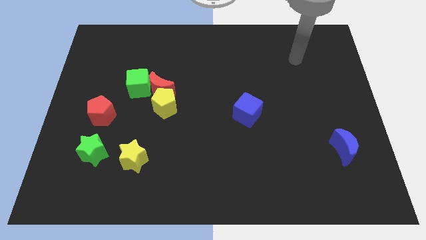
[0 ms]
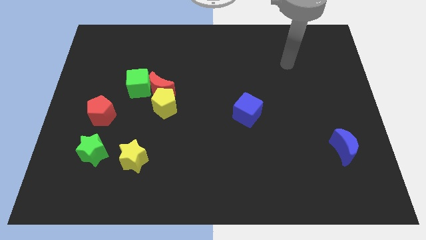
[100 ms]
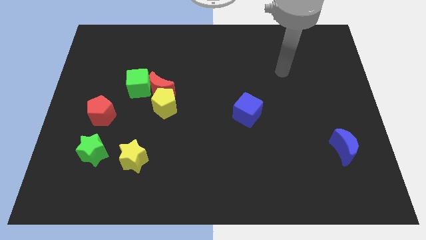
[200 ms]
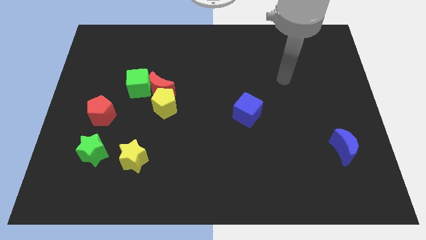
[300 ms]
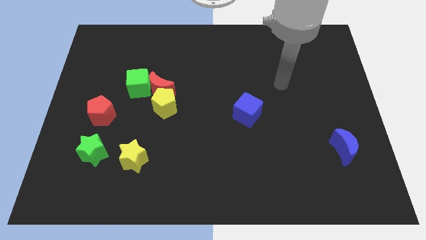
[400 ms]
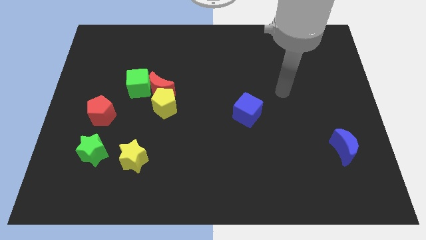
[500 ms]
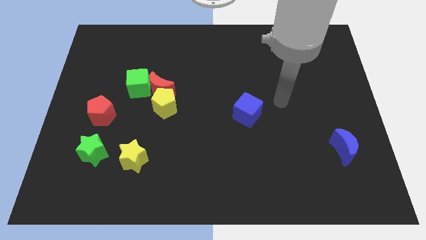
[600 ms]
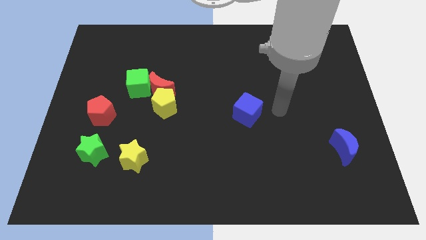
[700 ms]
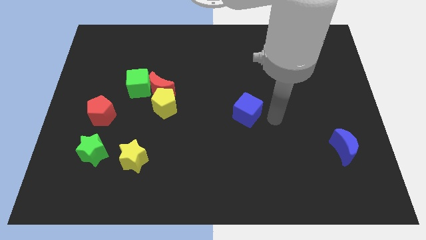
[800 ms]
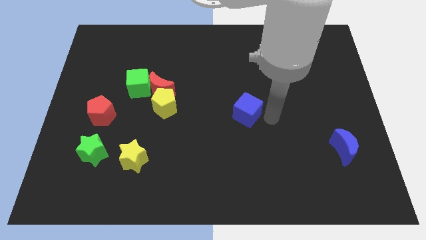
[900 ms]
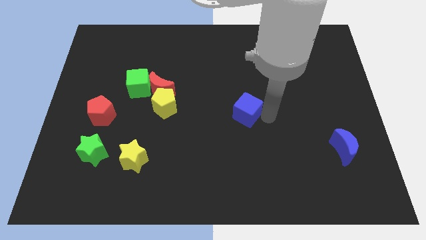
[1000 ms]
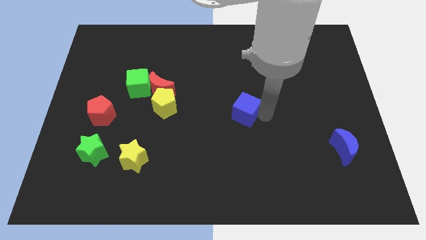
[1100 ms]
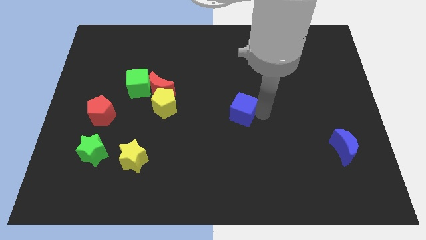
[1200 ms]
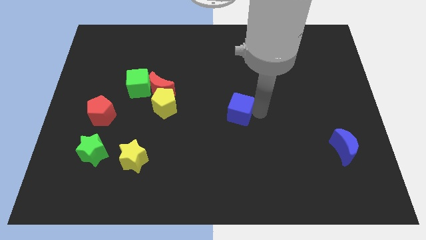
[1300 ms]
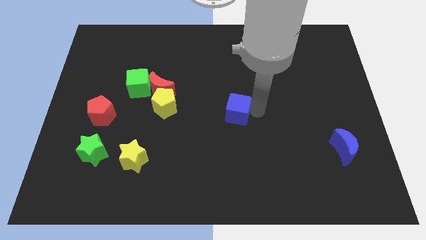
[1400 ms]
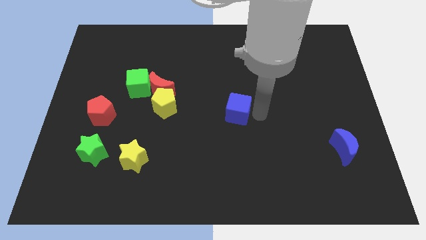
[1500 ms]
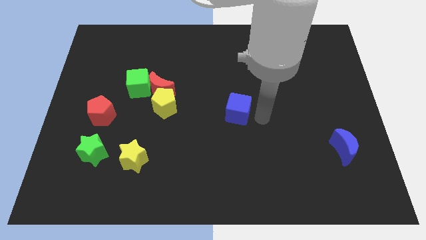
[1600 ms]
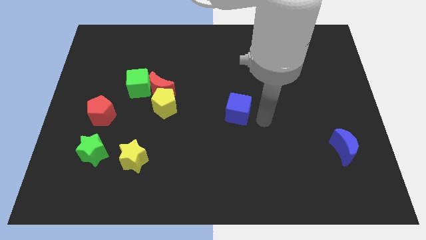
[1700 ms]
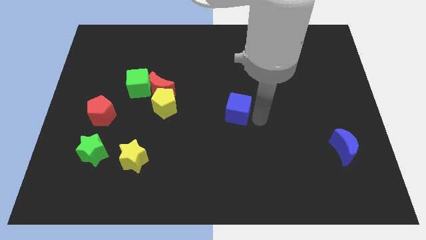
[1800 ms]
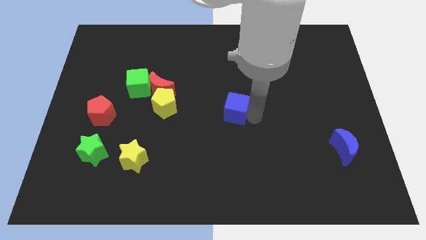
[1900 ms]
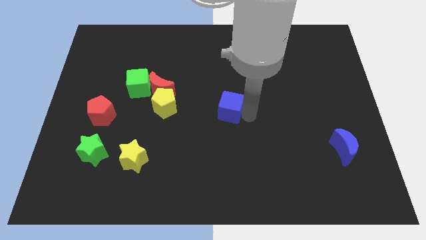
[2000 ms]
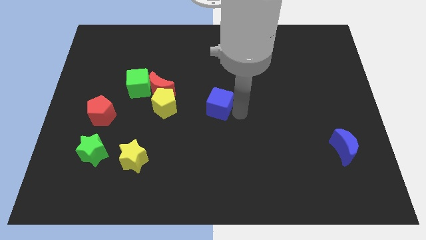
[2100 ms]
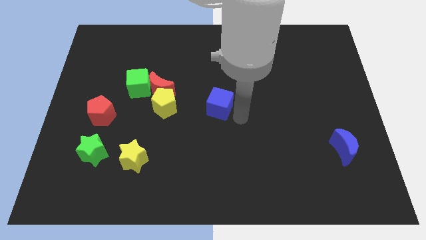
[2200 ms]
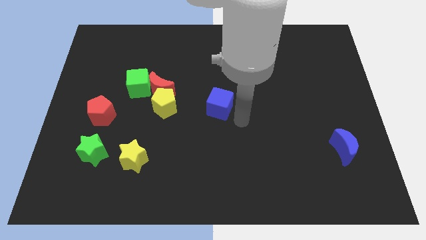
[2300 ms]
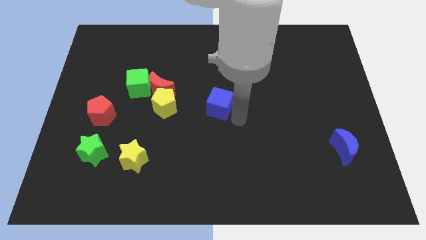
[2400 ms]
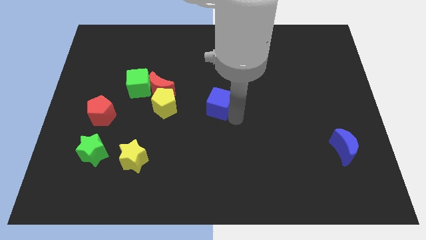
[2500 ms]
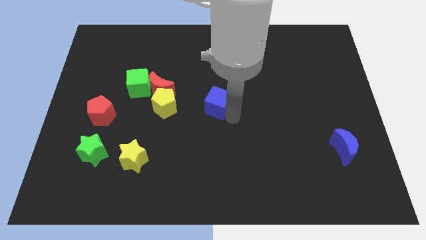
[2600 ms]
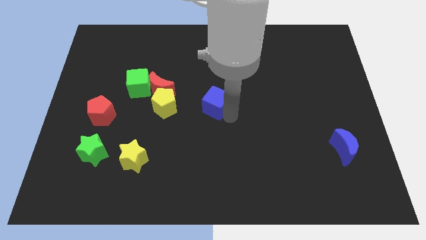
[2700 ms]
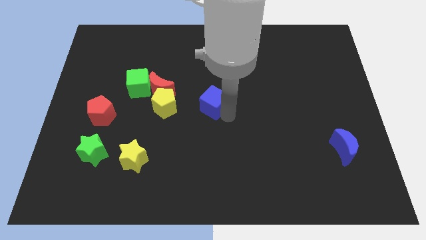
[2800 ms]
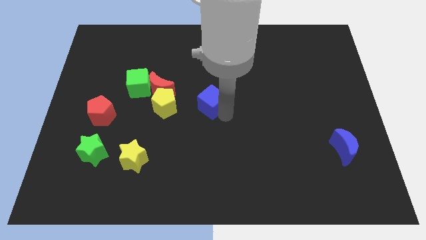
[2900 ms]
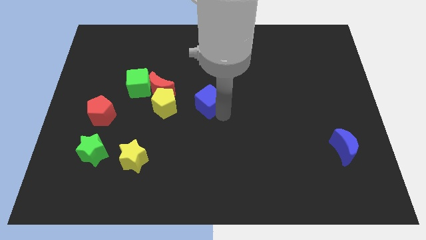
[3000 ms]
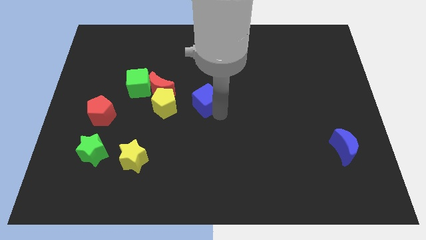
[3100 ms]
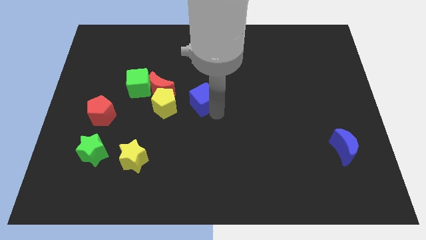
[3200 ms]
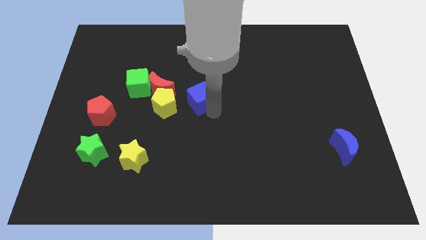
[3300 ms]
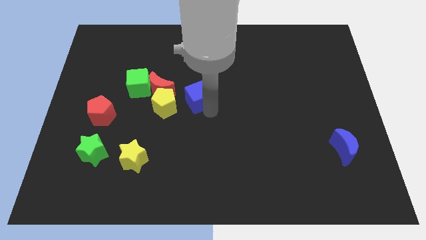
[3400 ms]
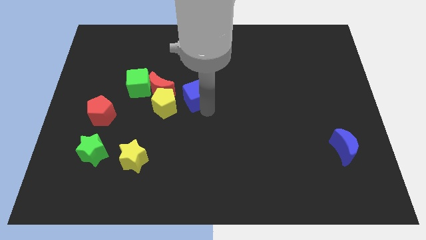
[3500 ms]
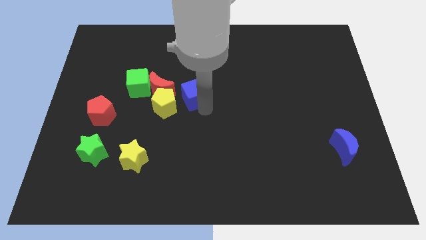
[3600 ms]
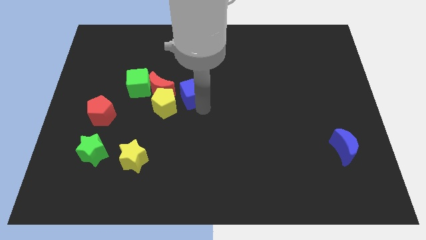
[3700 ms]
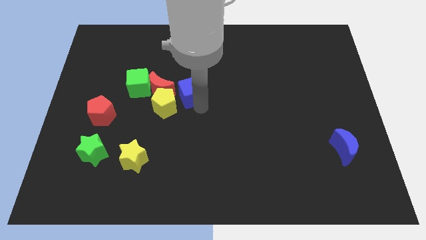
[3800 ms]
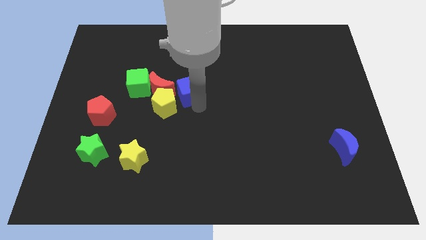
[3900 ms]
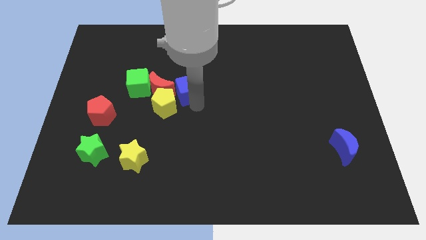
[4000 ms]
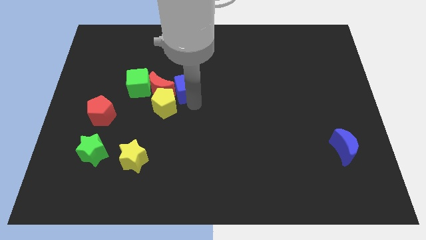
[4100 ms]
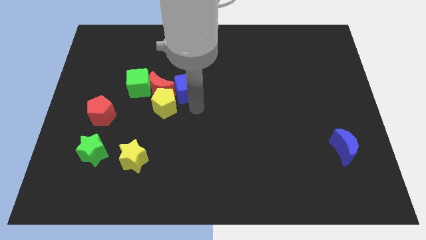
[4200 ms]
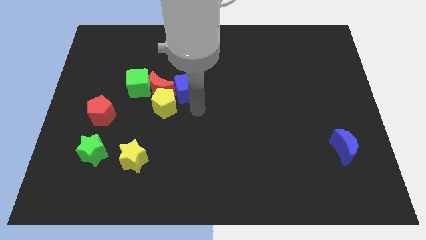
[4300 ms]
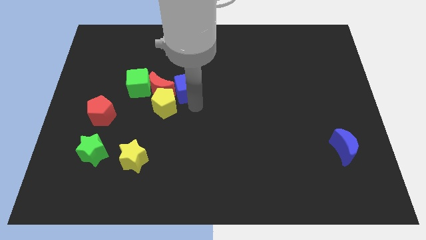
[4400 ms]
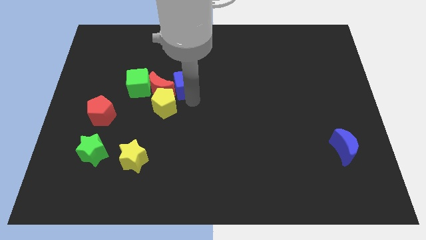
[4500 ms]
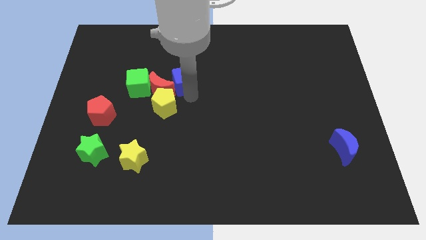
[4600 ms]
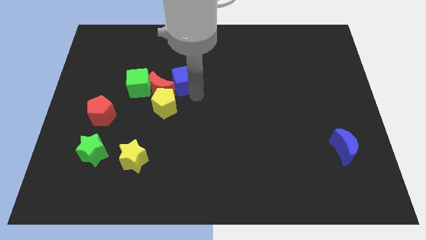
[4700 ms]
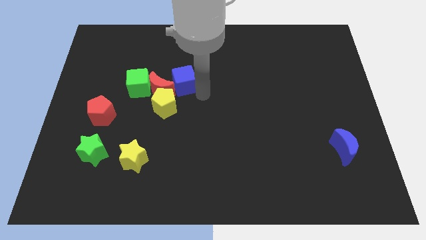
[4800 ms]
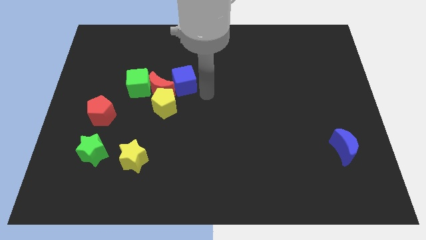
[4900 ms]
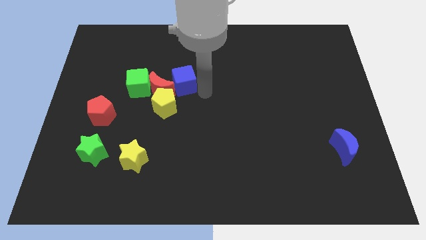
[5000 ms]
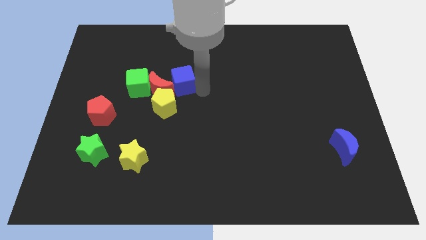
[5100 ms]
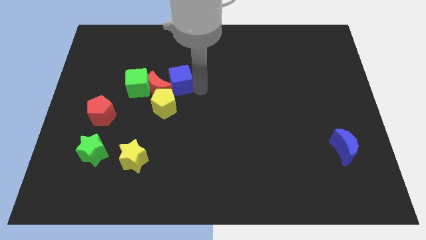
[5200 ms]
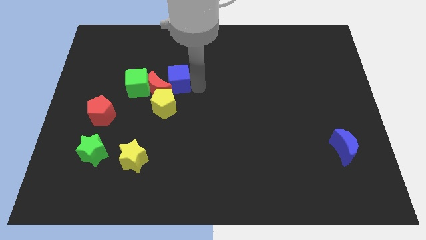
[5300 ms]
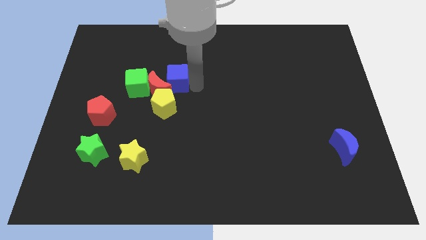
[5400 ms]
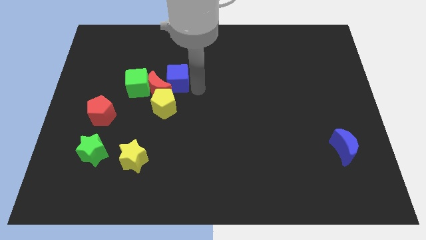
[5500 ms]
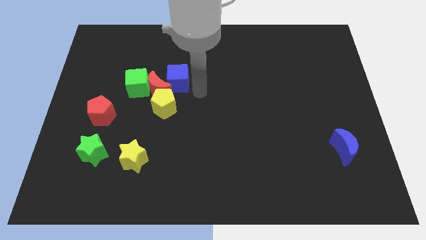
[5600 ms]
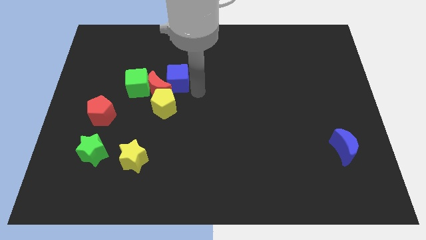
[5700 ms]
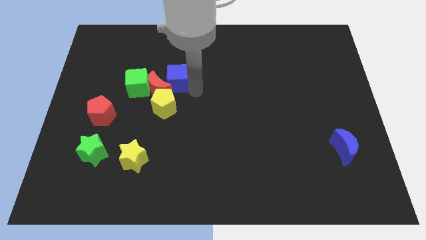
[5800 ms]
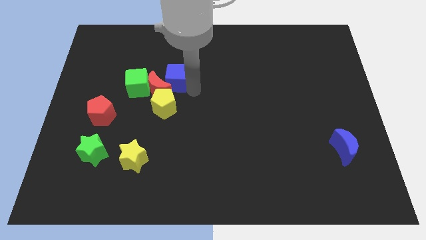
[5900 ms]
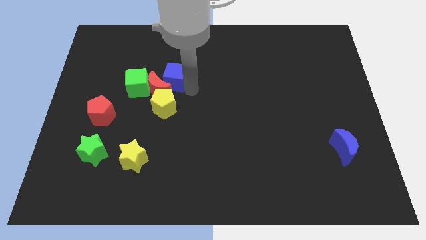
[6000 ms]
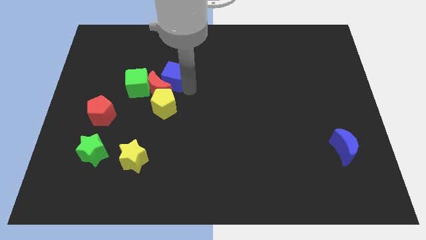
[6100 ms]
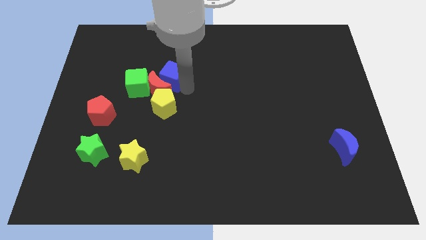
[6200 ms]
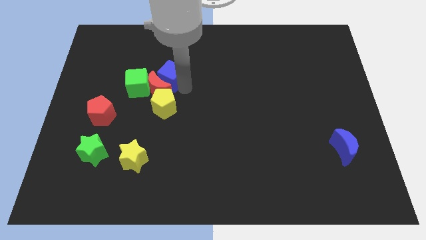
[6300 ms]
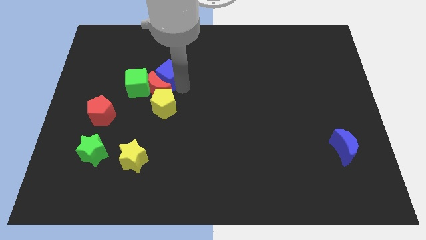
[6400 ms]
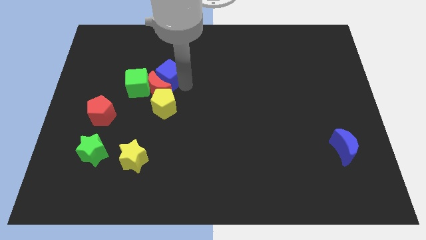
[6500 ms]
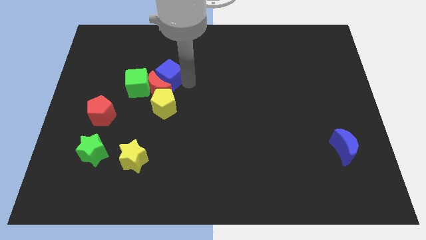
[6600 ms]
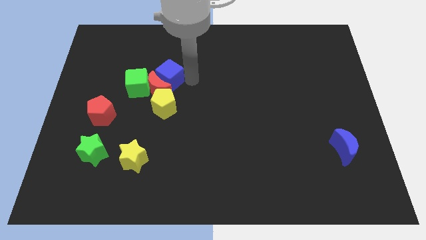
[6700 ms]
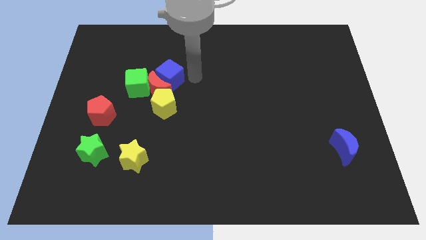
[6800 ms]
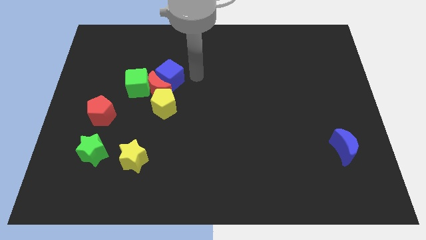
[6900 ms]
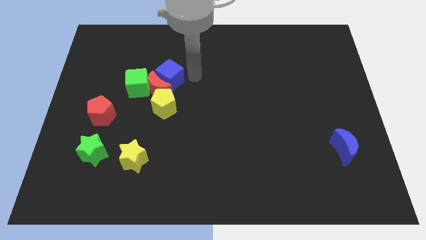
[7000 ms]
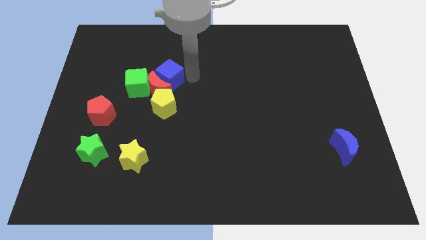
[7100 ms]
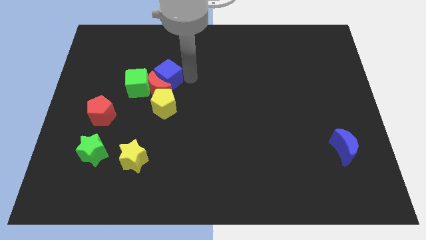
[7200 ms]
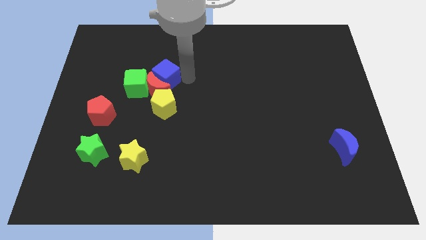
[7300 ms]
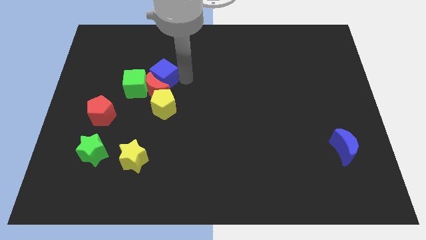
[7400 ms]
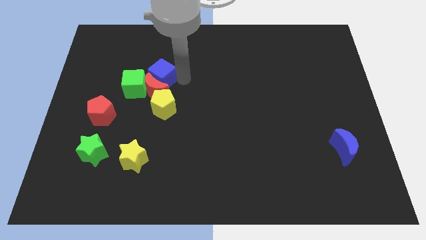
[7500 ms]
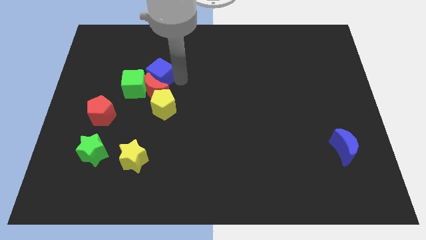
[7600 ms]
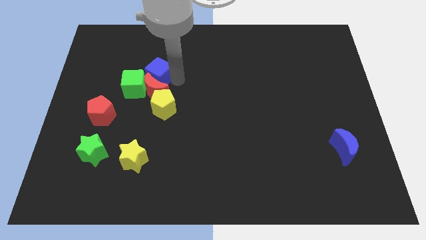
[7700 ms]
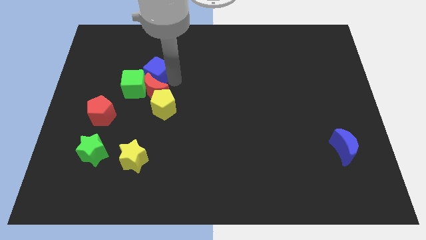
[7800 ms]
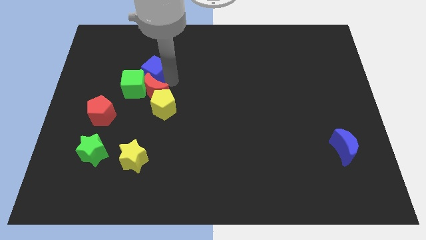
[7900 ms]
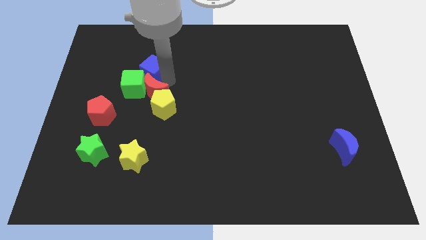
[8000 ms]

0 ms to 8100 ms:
move the blue cube close to the green cube
